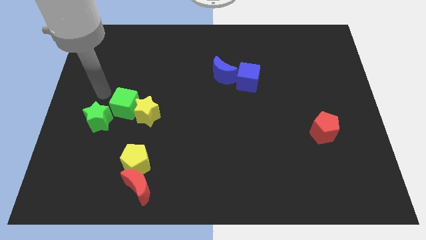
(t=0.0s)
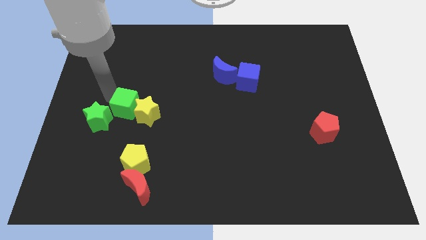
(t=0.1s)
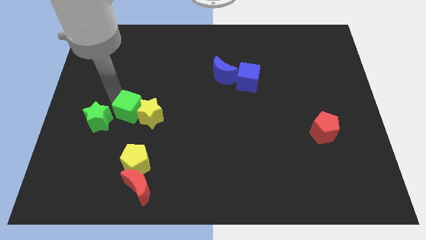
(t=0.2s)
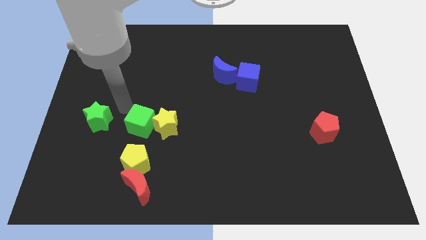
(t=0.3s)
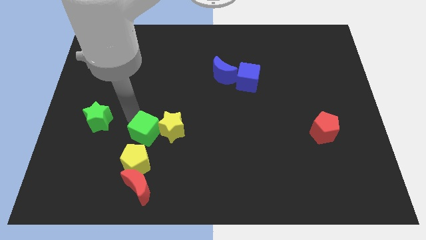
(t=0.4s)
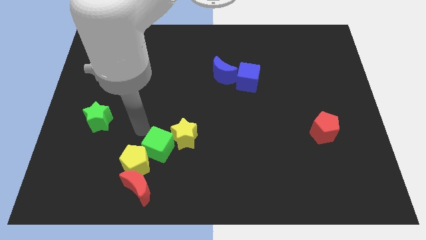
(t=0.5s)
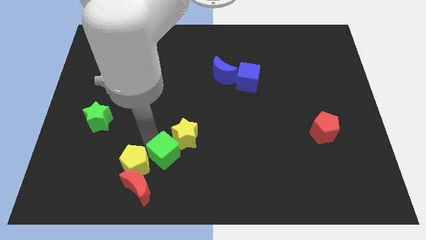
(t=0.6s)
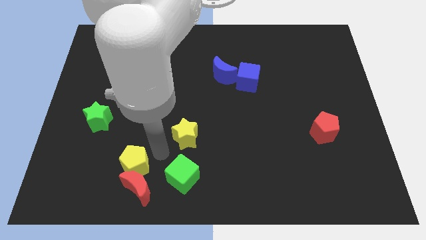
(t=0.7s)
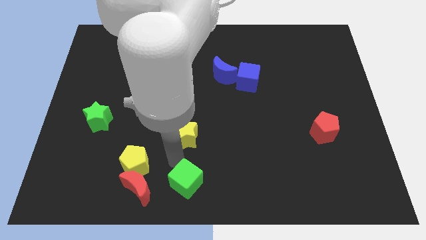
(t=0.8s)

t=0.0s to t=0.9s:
pull the yellow star apart from the green cube

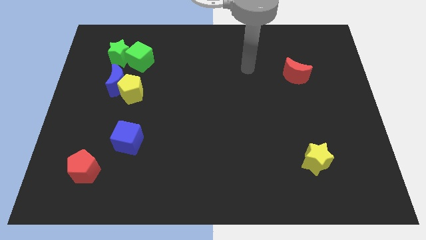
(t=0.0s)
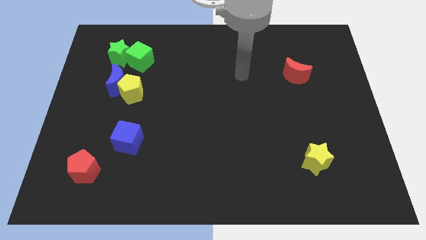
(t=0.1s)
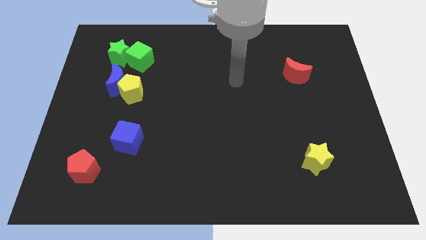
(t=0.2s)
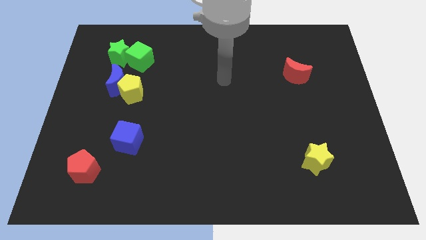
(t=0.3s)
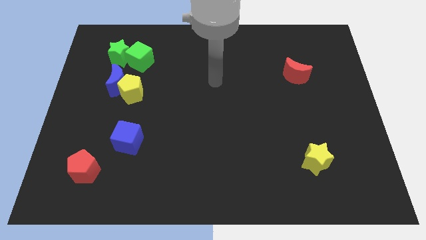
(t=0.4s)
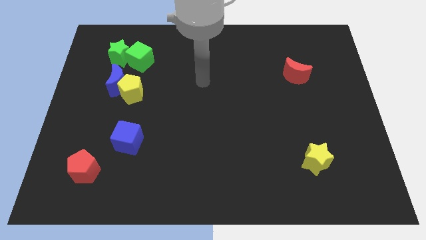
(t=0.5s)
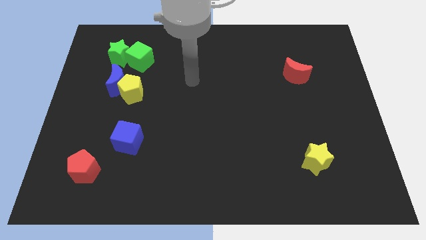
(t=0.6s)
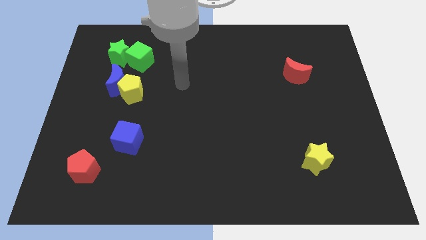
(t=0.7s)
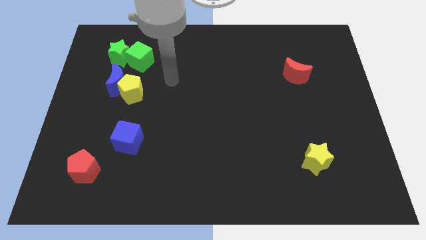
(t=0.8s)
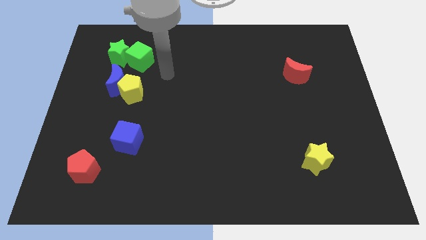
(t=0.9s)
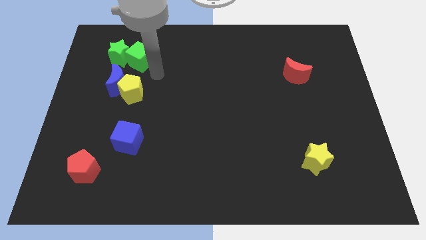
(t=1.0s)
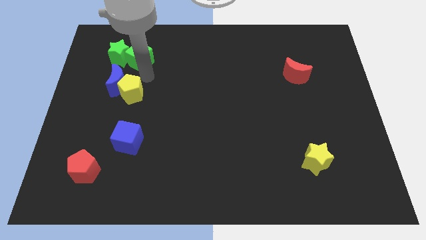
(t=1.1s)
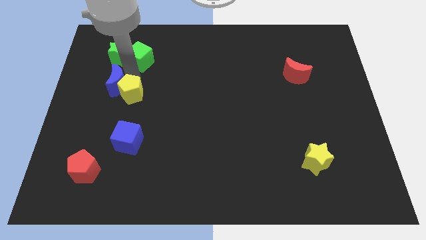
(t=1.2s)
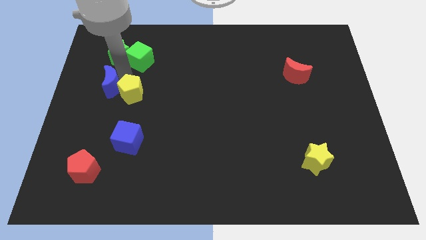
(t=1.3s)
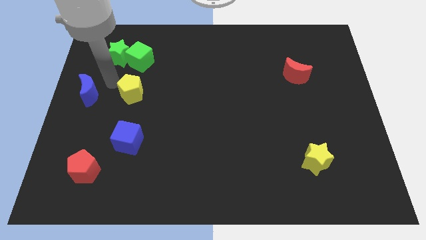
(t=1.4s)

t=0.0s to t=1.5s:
move the yellow pentagon away from the blue moon

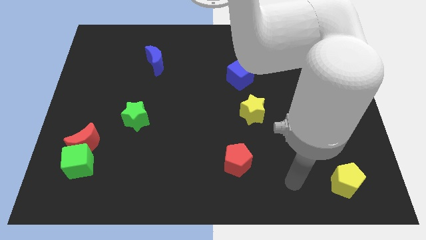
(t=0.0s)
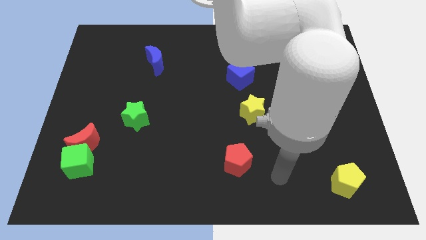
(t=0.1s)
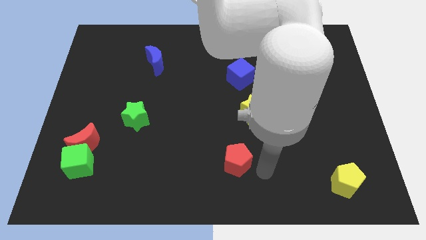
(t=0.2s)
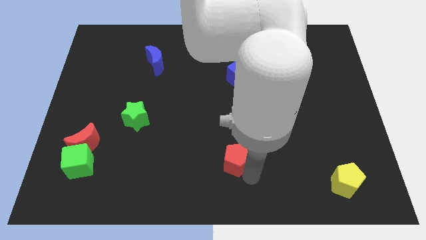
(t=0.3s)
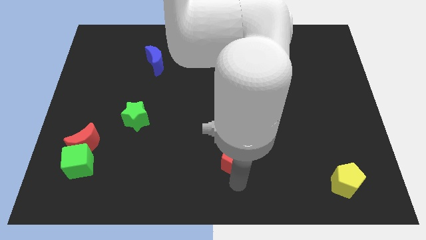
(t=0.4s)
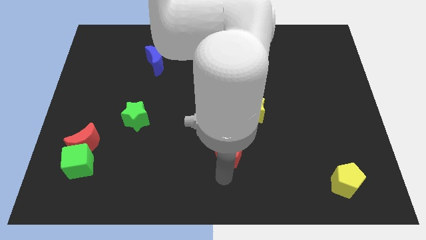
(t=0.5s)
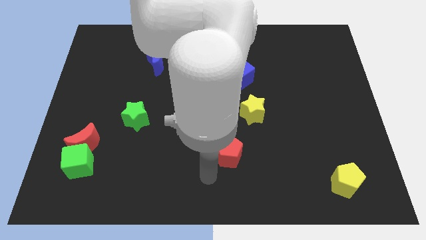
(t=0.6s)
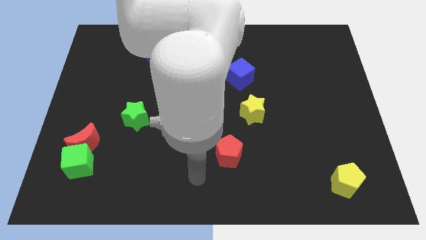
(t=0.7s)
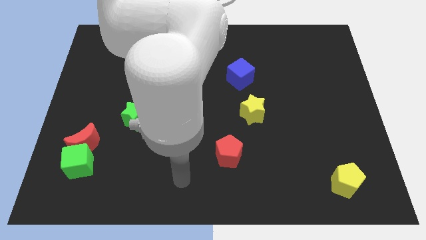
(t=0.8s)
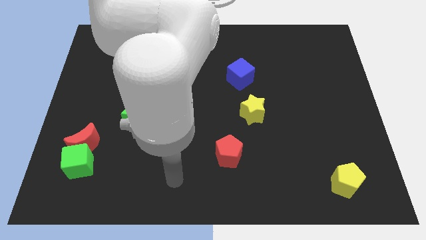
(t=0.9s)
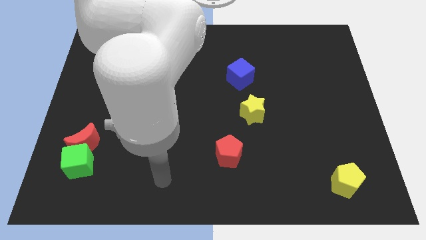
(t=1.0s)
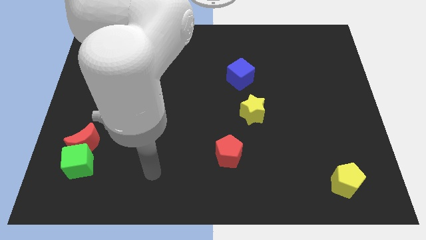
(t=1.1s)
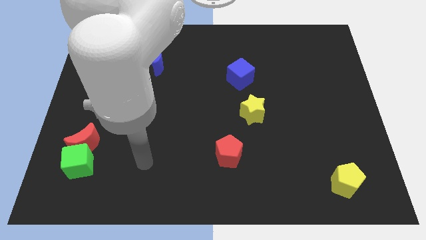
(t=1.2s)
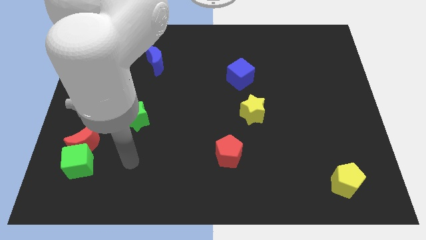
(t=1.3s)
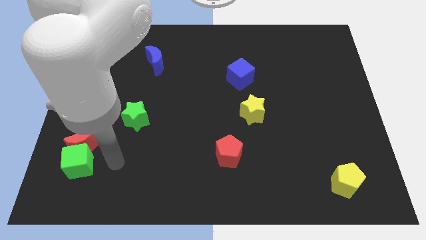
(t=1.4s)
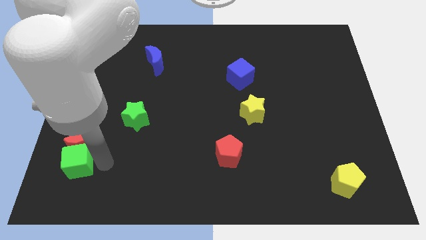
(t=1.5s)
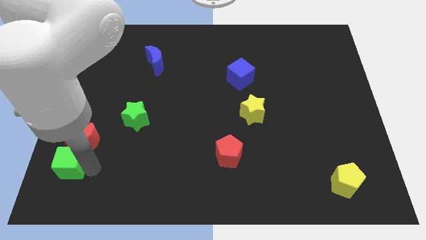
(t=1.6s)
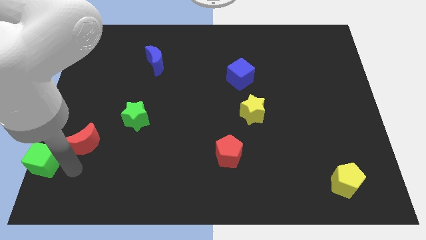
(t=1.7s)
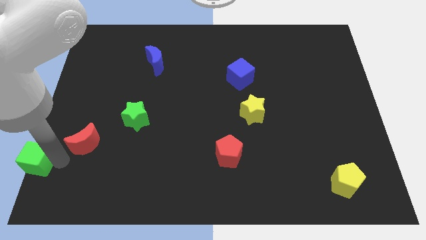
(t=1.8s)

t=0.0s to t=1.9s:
move the red moon away from the green cube

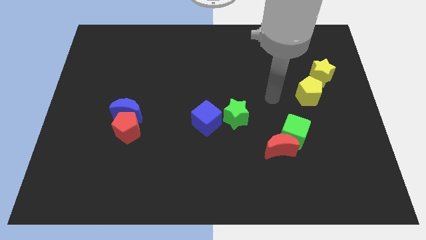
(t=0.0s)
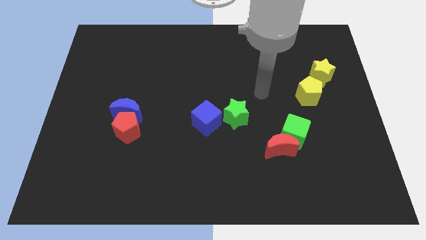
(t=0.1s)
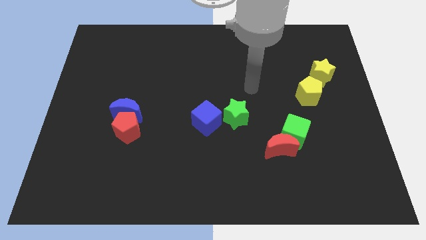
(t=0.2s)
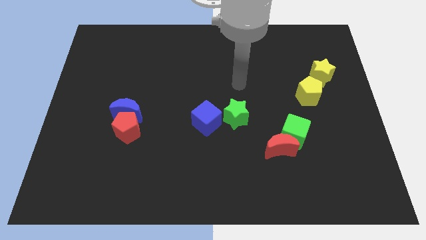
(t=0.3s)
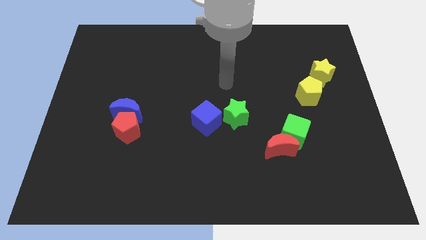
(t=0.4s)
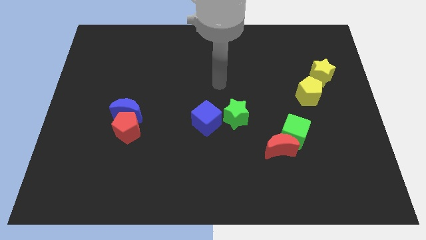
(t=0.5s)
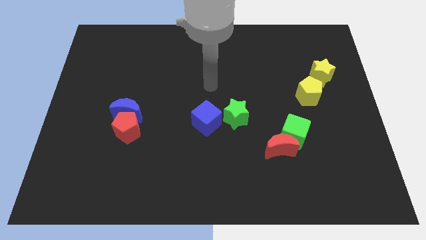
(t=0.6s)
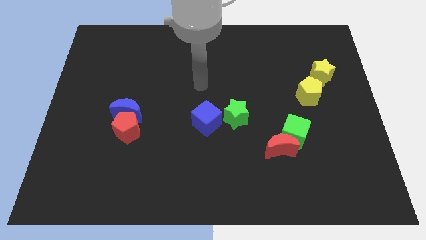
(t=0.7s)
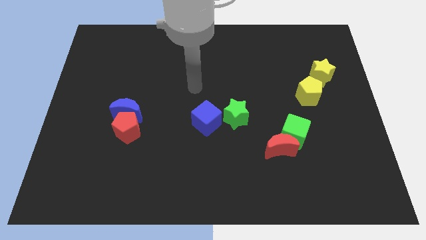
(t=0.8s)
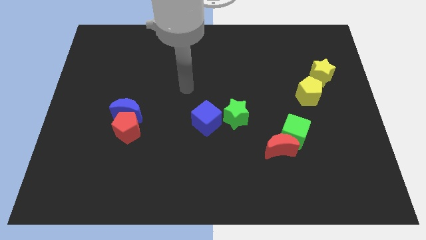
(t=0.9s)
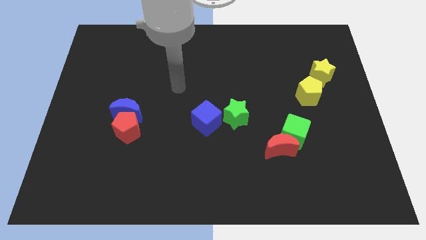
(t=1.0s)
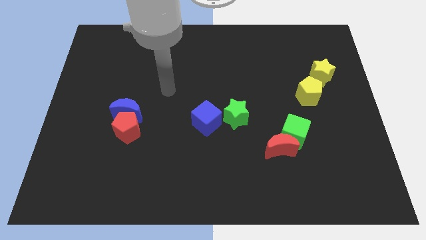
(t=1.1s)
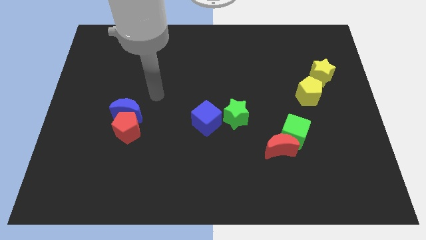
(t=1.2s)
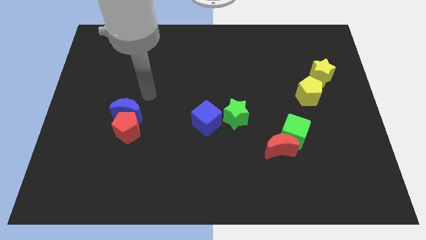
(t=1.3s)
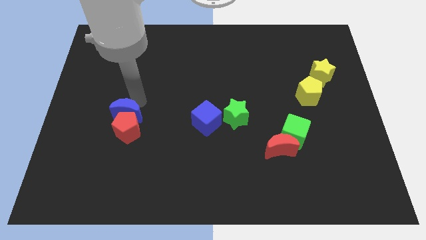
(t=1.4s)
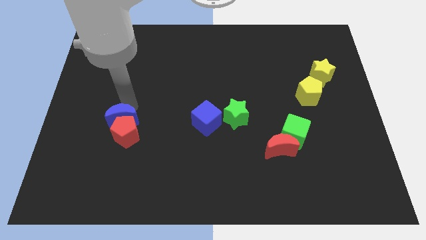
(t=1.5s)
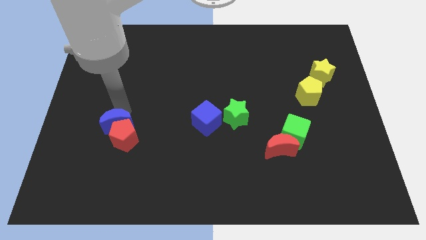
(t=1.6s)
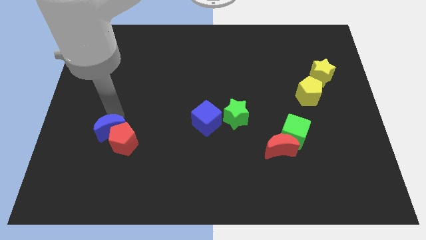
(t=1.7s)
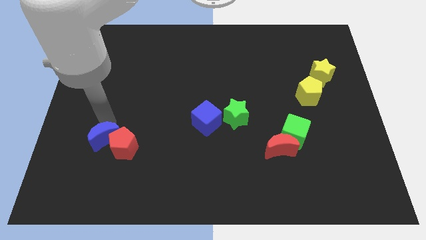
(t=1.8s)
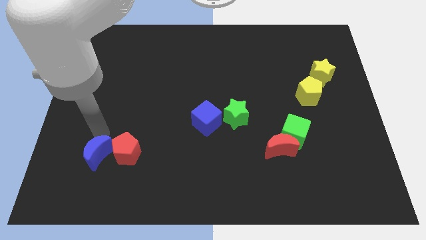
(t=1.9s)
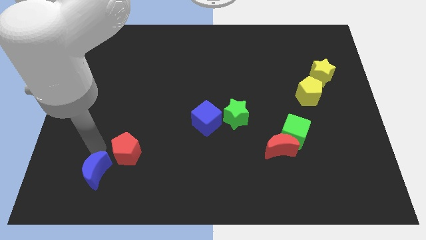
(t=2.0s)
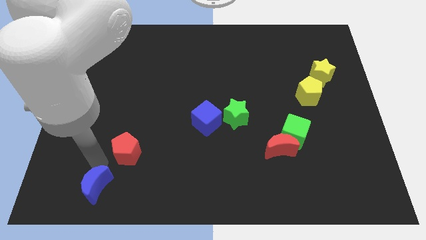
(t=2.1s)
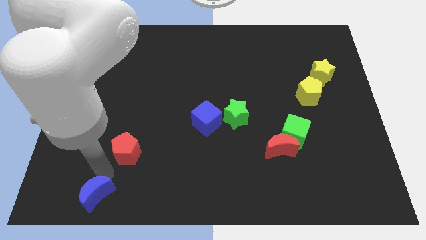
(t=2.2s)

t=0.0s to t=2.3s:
move the red pentagon away from the blue moon

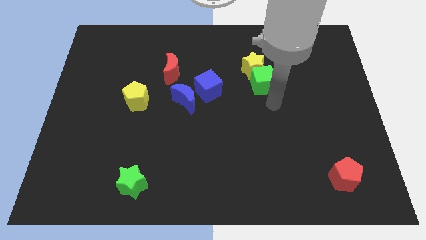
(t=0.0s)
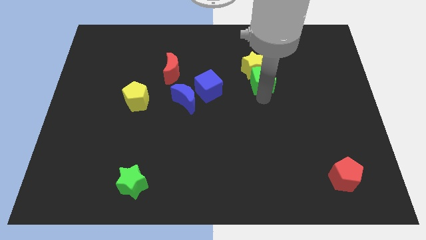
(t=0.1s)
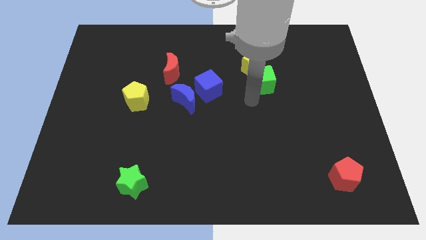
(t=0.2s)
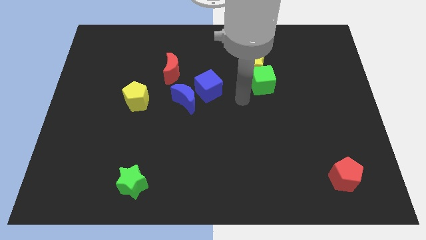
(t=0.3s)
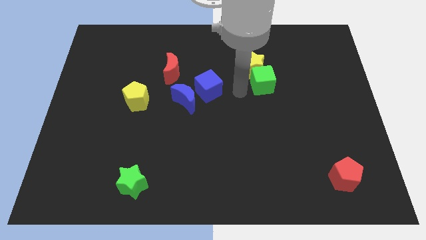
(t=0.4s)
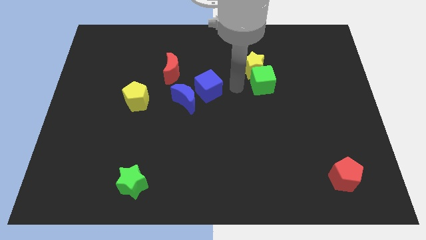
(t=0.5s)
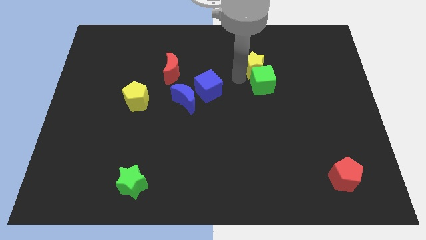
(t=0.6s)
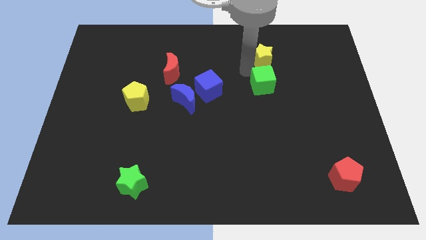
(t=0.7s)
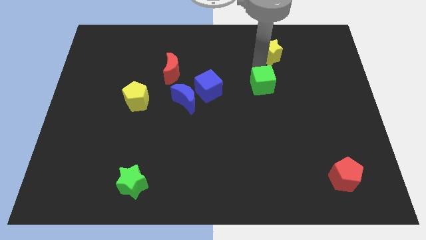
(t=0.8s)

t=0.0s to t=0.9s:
move the green cube away from the yellow star

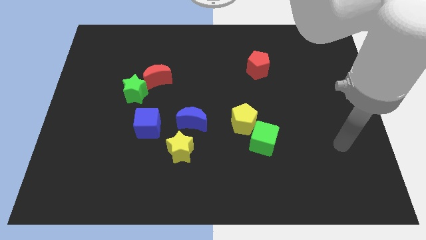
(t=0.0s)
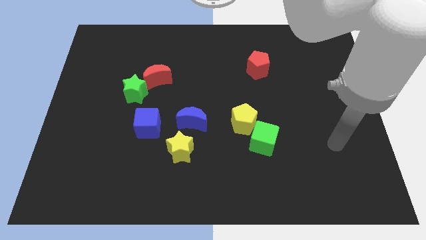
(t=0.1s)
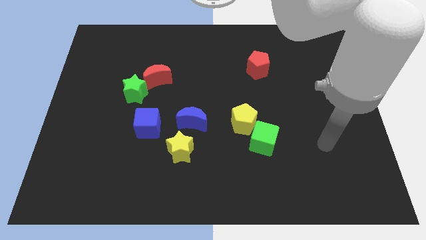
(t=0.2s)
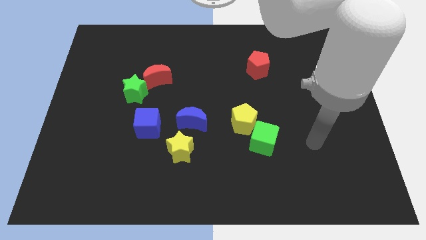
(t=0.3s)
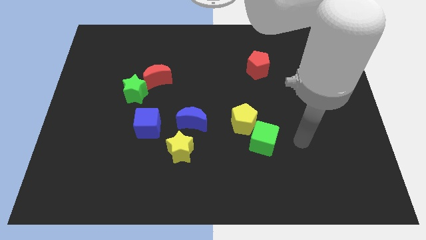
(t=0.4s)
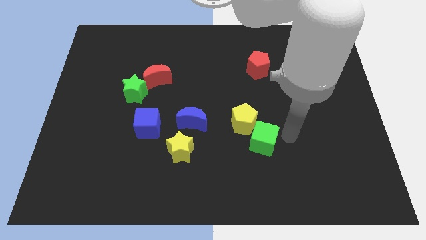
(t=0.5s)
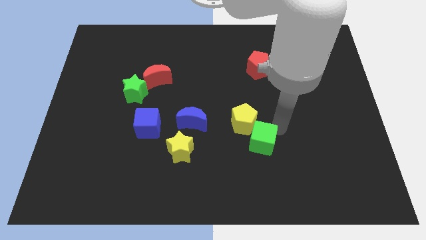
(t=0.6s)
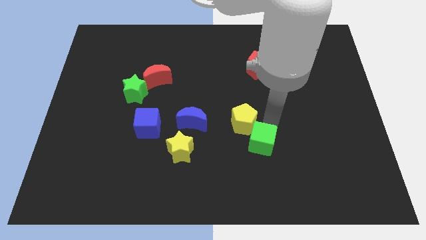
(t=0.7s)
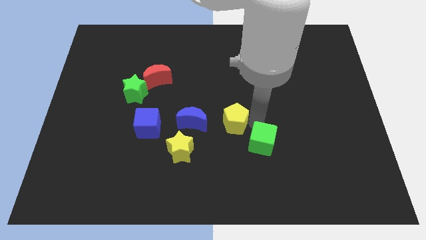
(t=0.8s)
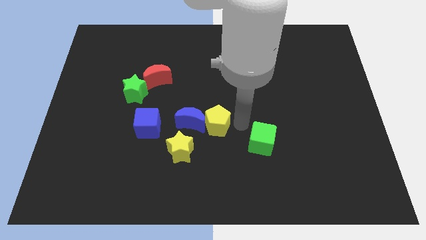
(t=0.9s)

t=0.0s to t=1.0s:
move the green cube away from the yellow pentagon

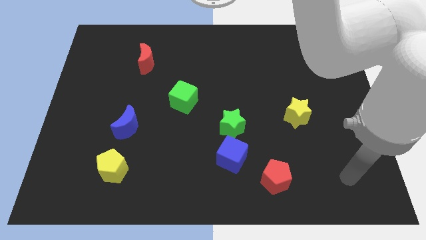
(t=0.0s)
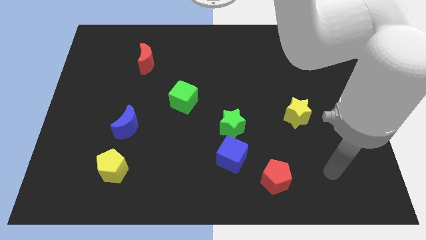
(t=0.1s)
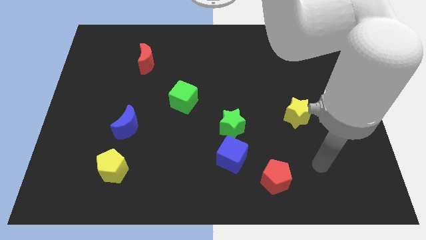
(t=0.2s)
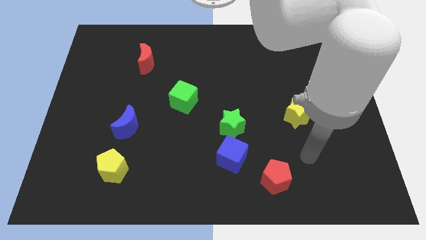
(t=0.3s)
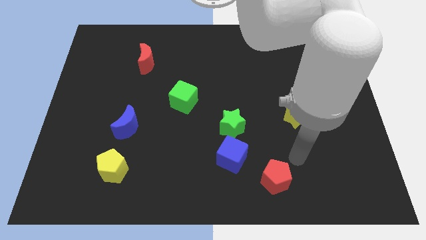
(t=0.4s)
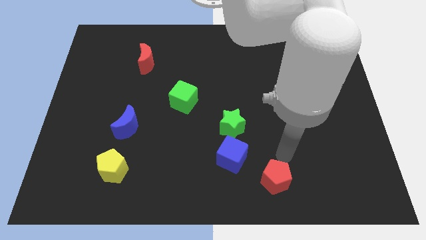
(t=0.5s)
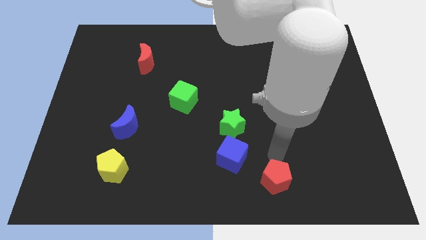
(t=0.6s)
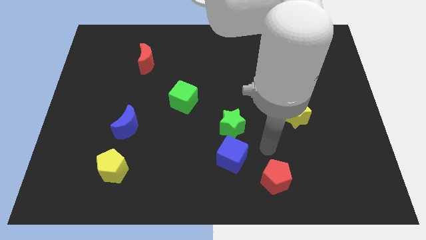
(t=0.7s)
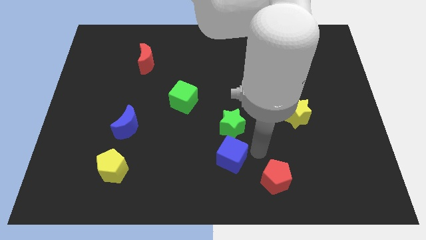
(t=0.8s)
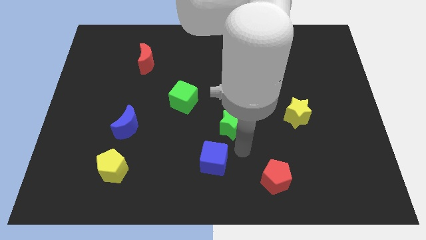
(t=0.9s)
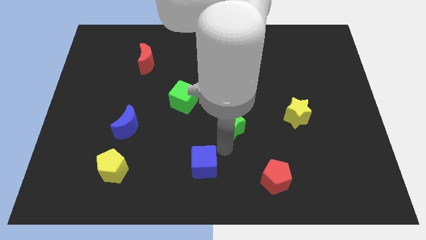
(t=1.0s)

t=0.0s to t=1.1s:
pull the green star apart from the blue cube
